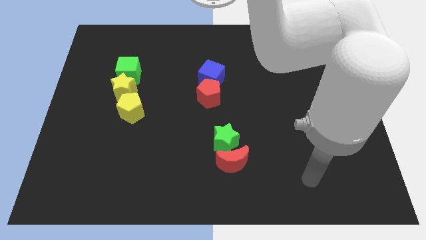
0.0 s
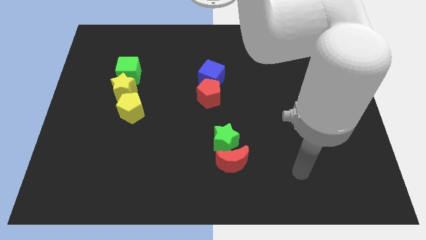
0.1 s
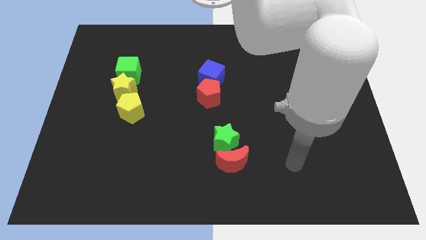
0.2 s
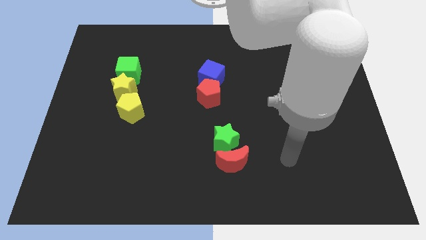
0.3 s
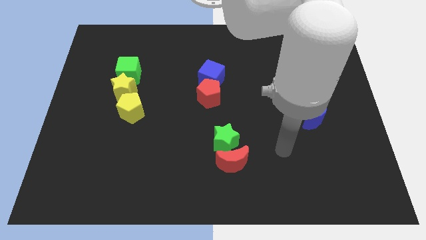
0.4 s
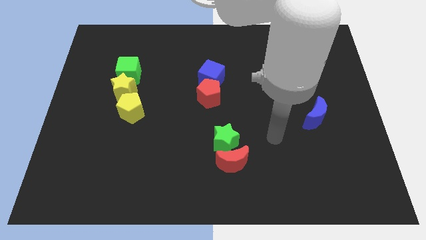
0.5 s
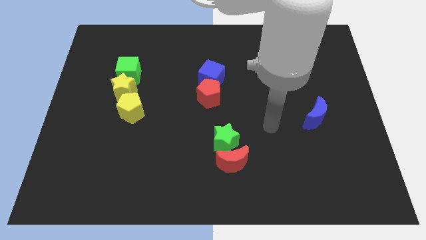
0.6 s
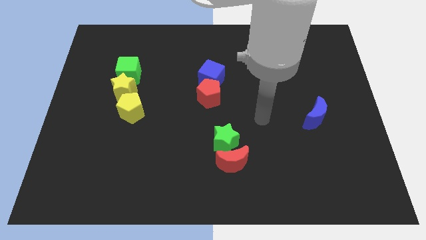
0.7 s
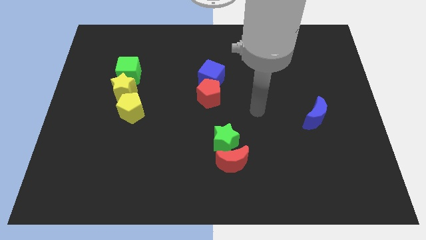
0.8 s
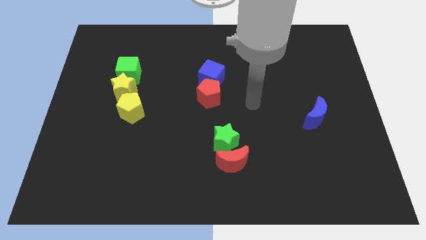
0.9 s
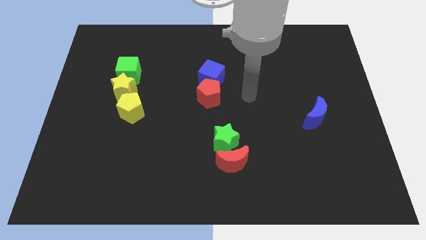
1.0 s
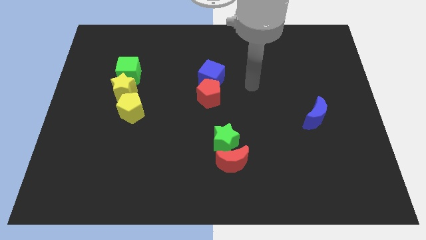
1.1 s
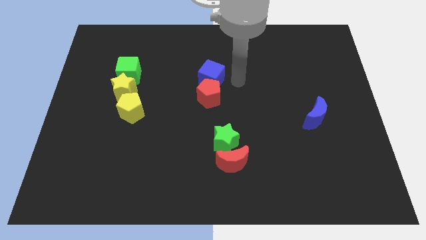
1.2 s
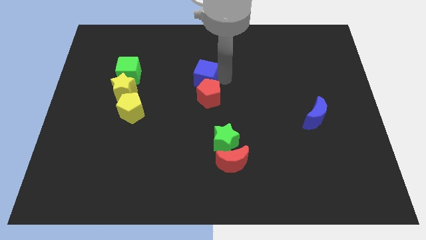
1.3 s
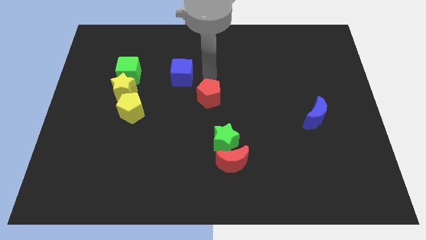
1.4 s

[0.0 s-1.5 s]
pull the red pentagon apart from the blue cube

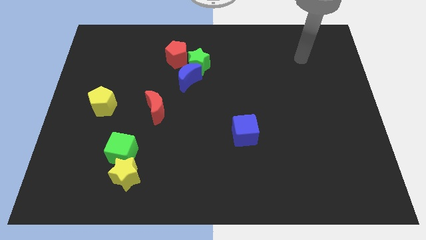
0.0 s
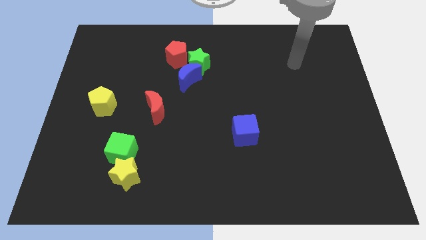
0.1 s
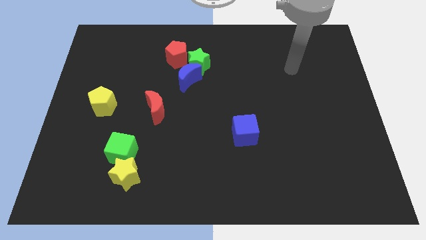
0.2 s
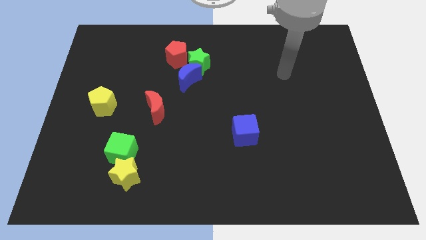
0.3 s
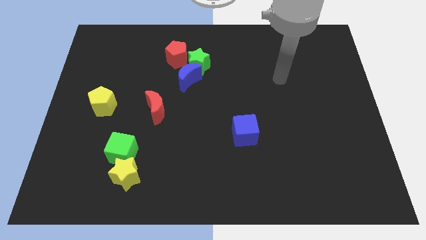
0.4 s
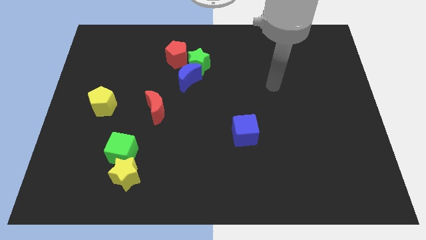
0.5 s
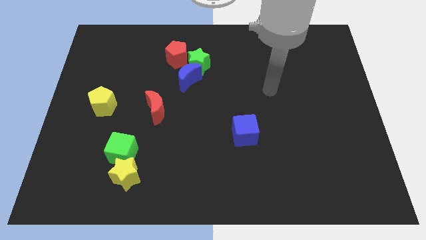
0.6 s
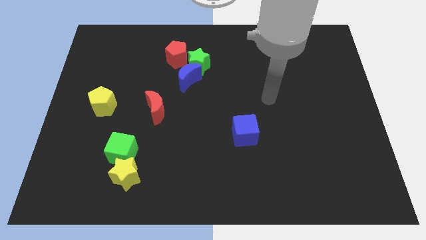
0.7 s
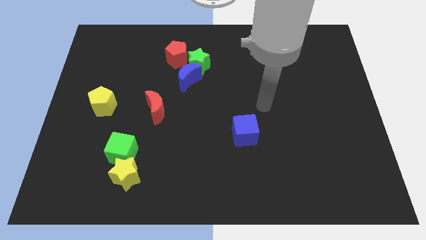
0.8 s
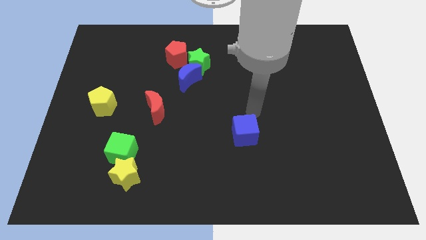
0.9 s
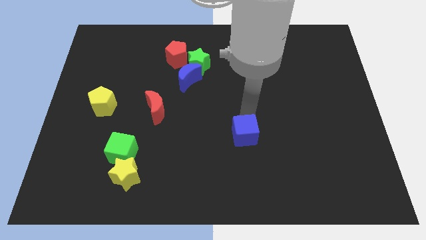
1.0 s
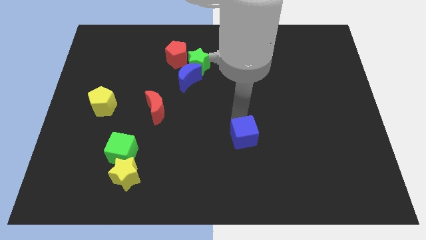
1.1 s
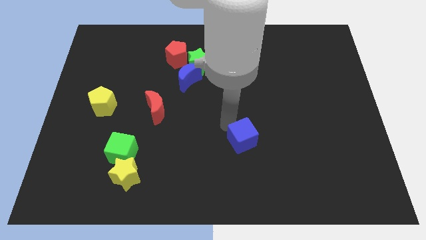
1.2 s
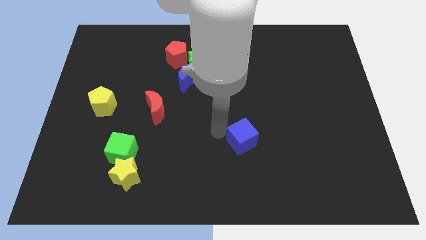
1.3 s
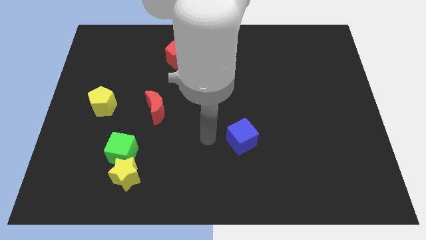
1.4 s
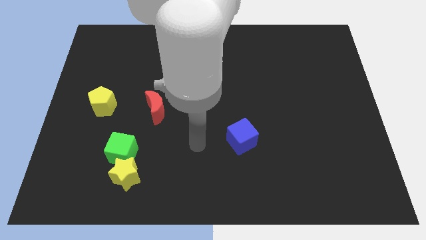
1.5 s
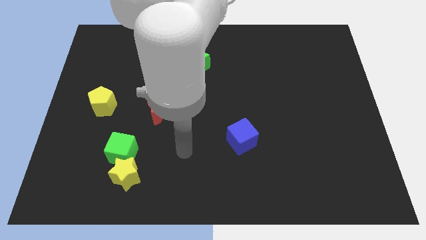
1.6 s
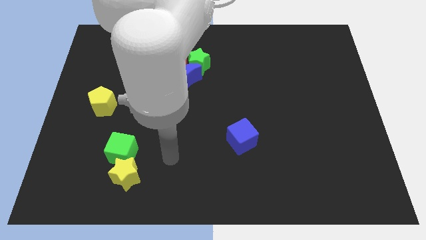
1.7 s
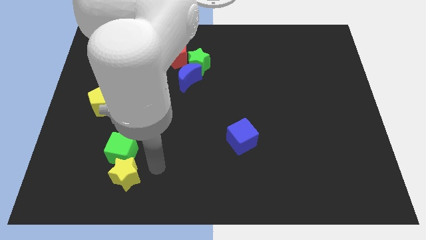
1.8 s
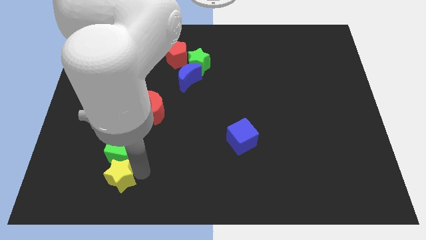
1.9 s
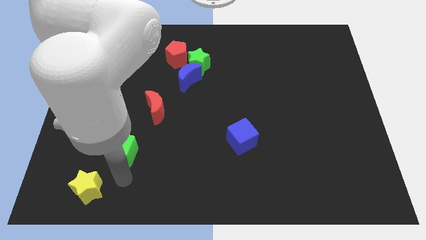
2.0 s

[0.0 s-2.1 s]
move the green cube away from the yellow star

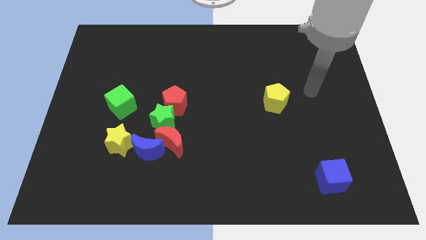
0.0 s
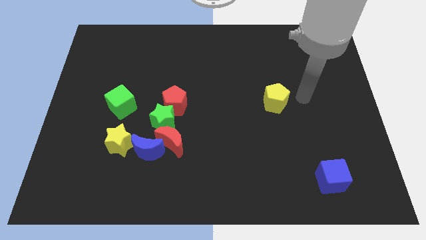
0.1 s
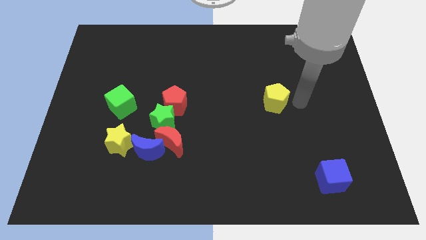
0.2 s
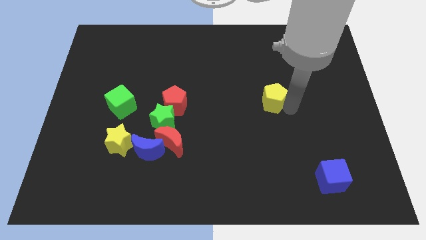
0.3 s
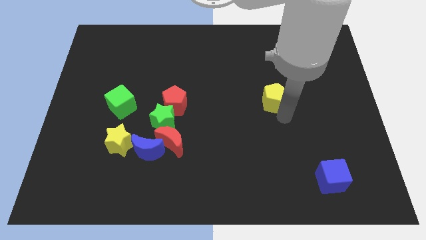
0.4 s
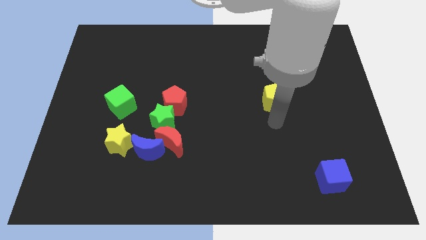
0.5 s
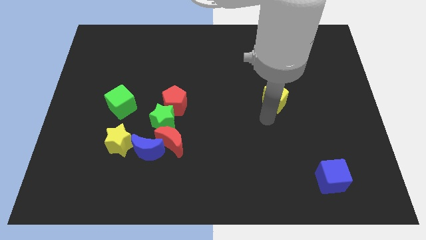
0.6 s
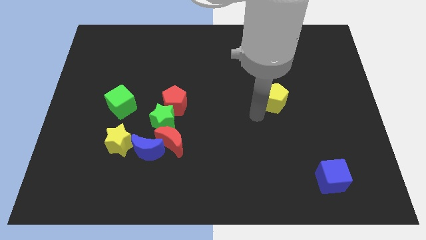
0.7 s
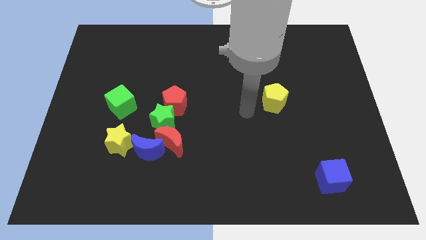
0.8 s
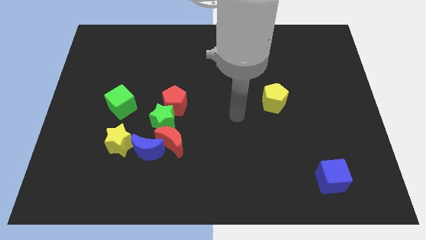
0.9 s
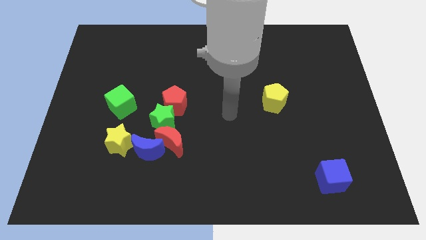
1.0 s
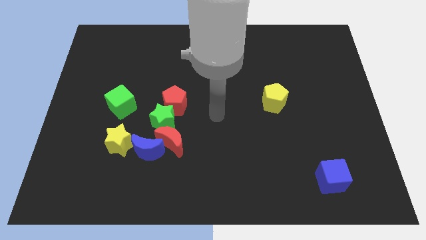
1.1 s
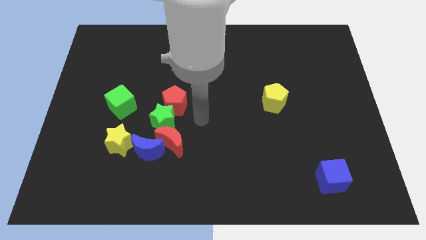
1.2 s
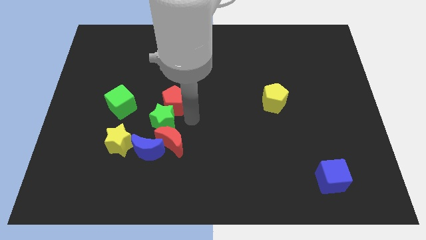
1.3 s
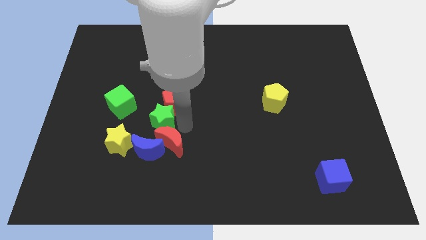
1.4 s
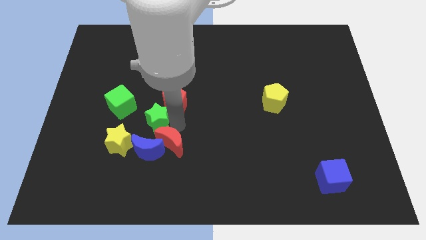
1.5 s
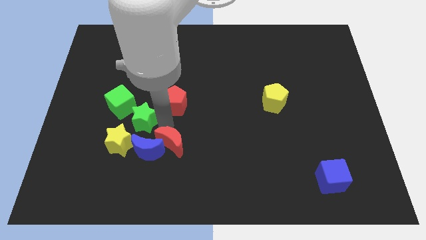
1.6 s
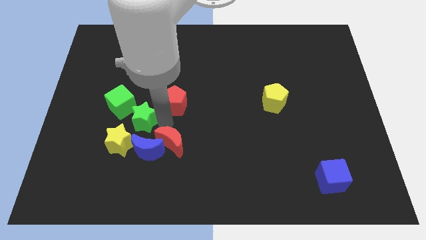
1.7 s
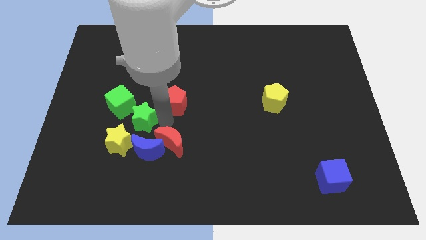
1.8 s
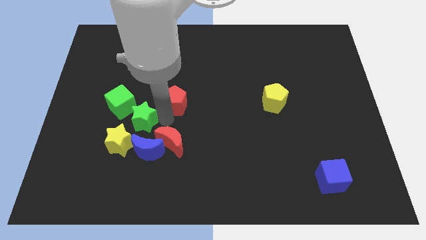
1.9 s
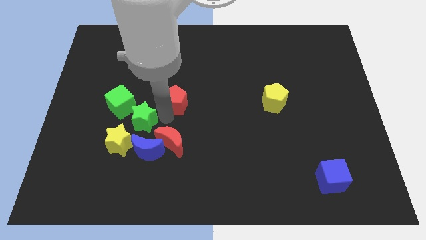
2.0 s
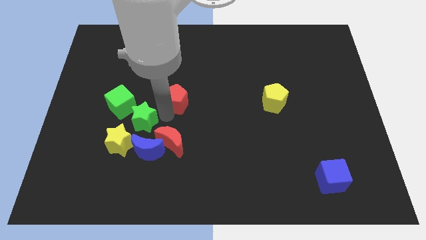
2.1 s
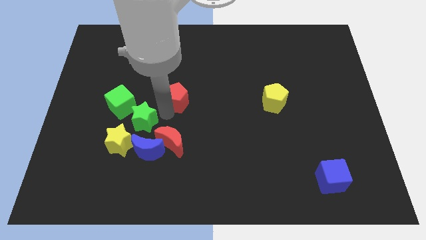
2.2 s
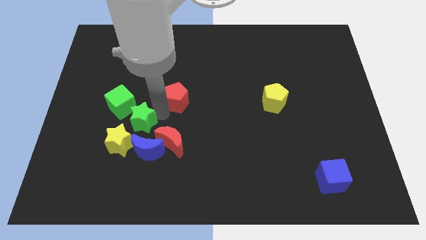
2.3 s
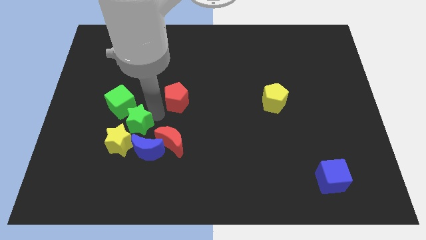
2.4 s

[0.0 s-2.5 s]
separate the red pentagon from the green star

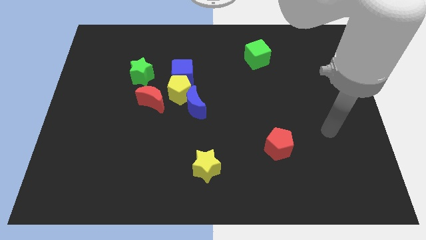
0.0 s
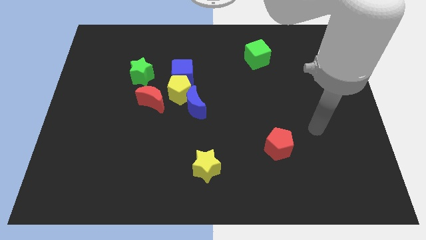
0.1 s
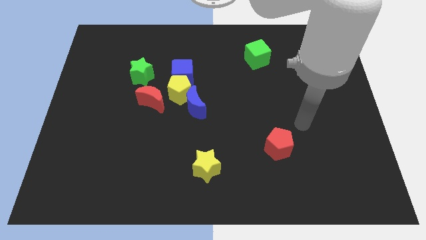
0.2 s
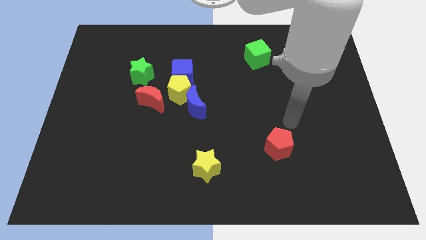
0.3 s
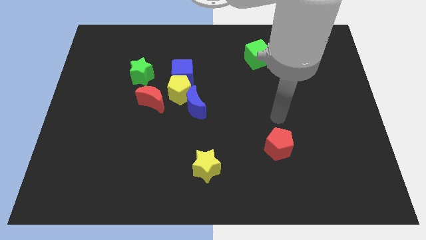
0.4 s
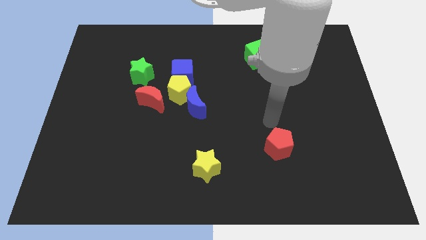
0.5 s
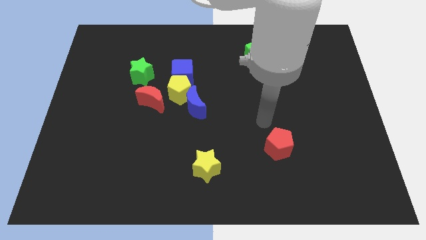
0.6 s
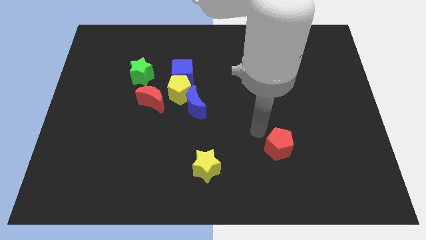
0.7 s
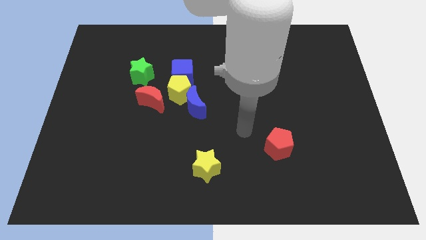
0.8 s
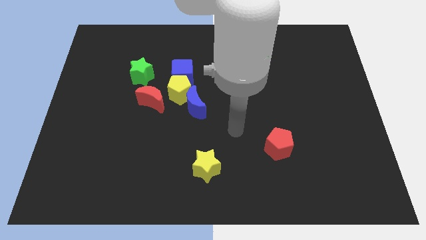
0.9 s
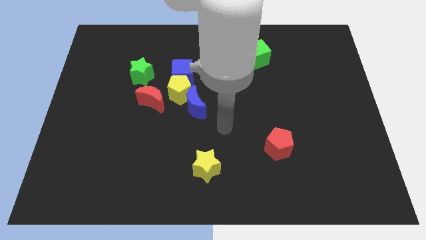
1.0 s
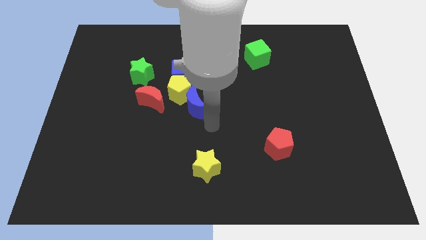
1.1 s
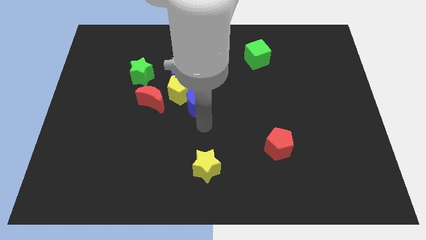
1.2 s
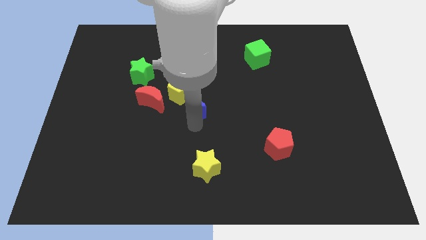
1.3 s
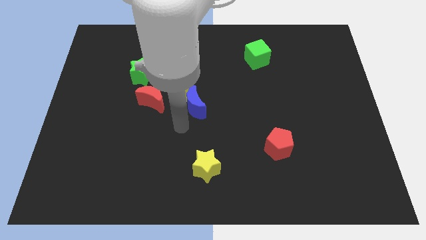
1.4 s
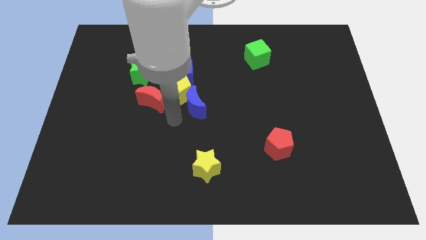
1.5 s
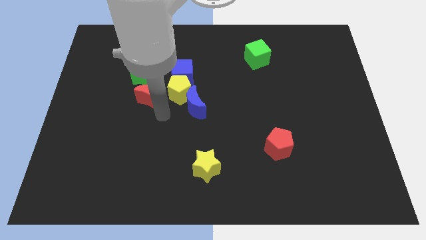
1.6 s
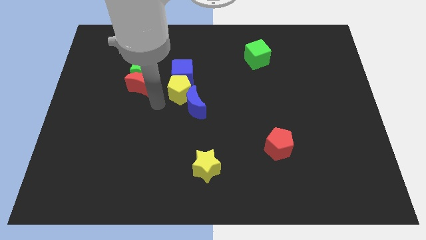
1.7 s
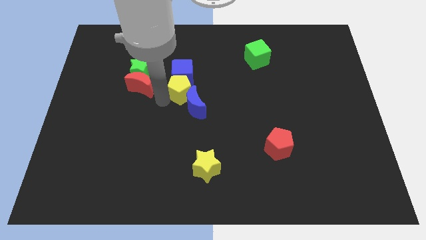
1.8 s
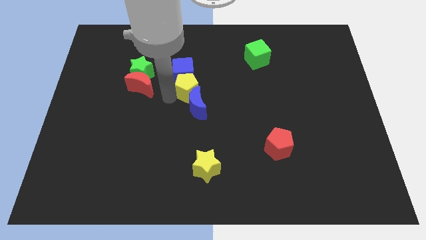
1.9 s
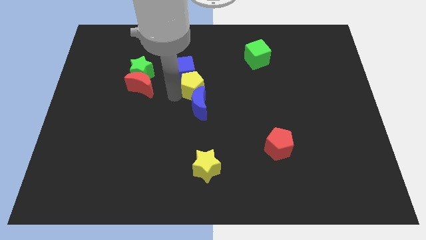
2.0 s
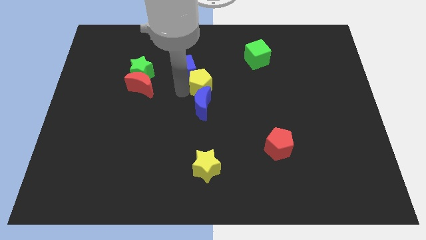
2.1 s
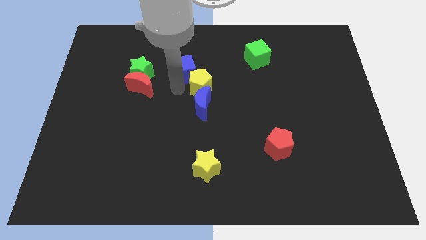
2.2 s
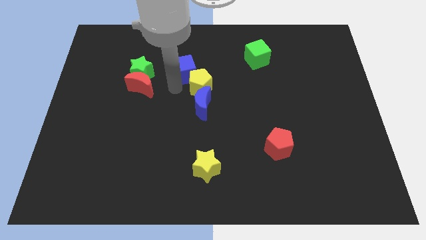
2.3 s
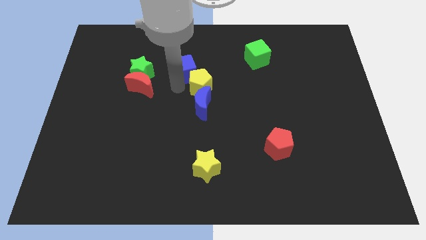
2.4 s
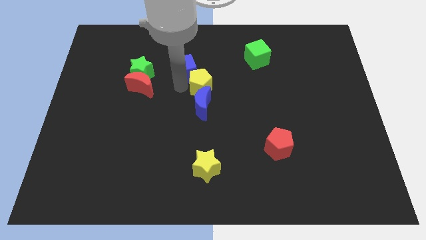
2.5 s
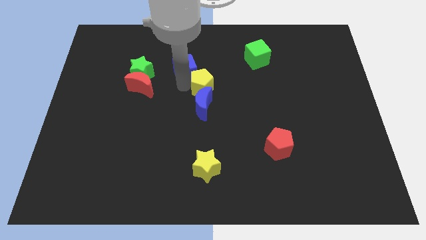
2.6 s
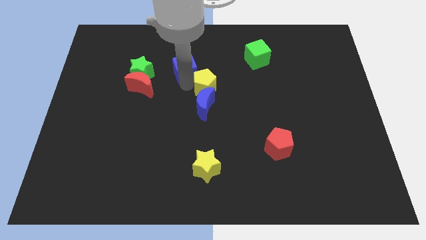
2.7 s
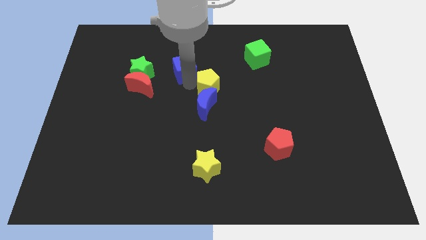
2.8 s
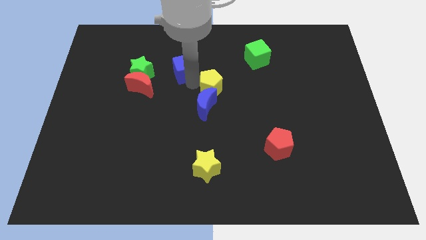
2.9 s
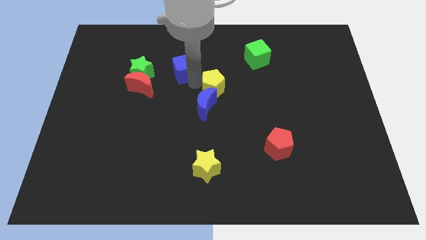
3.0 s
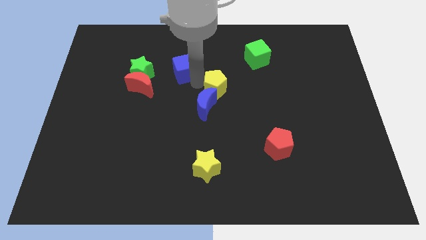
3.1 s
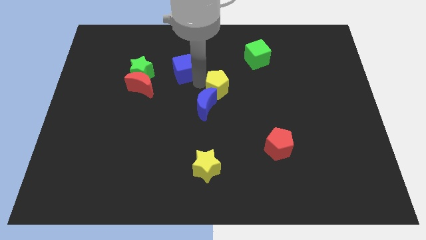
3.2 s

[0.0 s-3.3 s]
separate the yellow pentagon from the group
